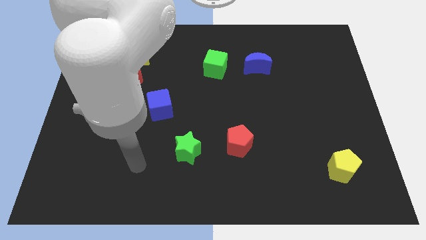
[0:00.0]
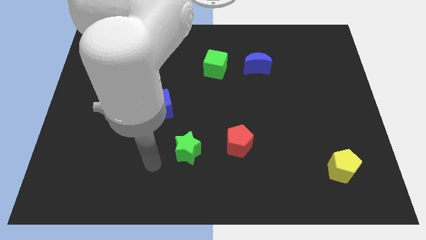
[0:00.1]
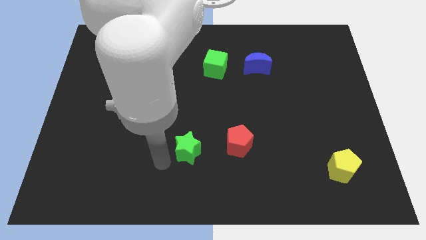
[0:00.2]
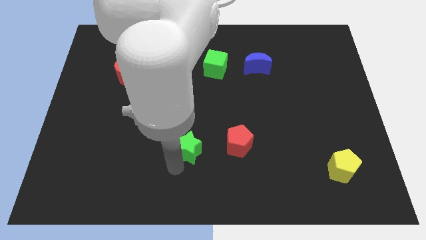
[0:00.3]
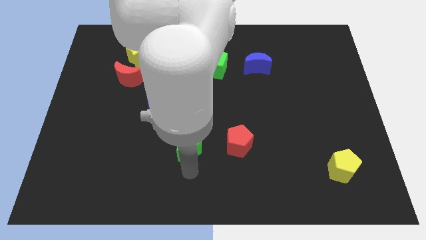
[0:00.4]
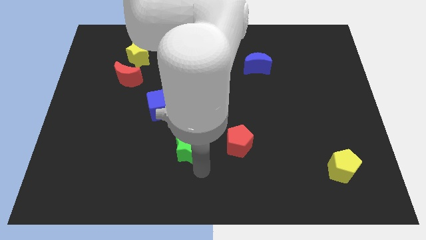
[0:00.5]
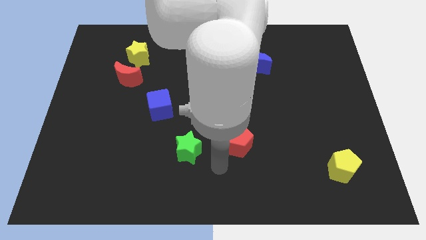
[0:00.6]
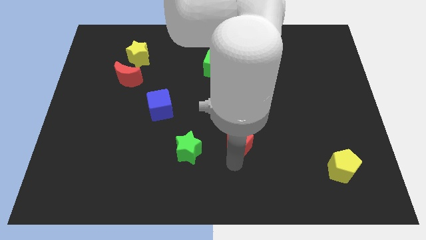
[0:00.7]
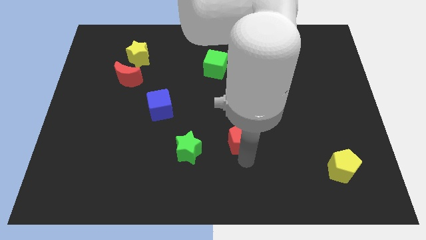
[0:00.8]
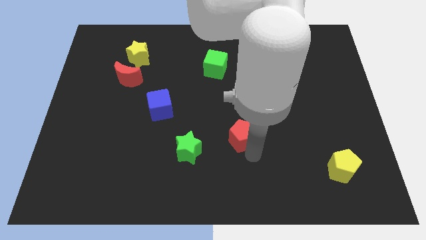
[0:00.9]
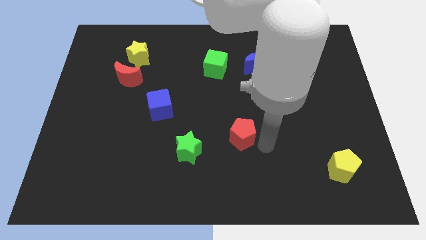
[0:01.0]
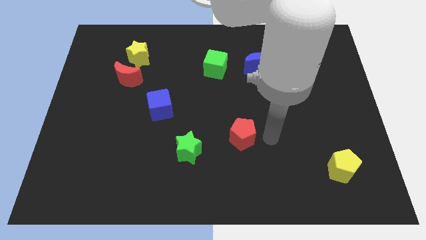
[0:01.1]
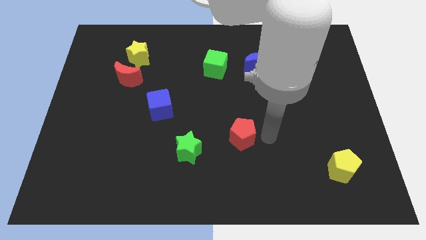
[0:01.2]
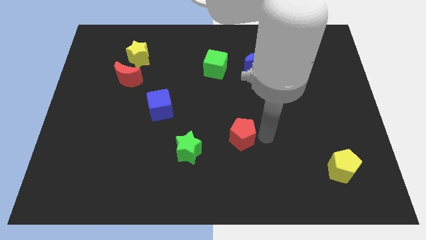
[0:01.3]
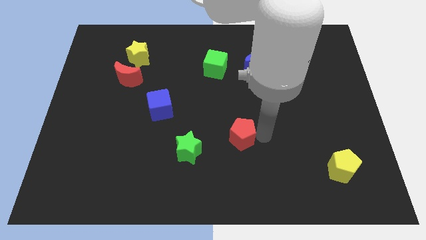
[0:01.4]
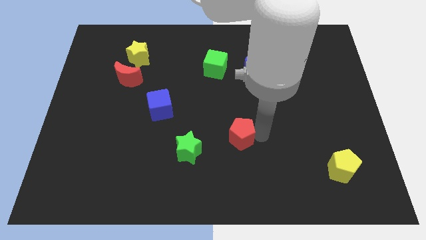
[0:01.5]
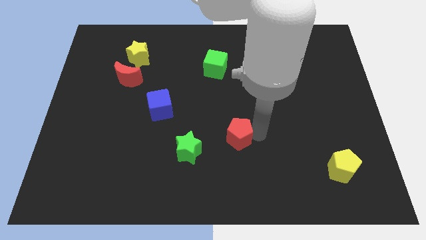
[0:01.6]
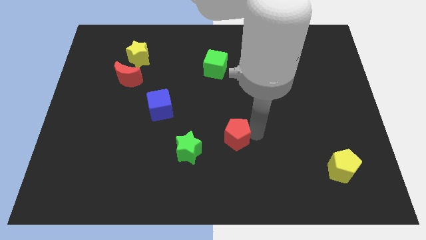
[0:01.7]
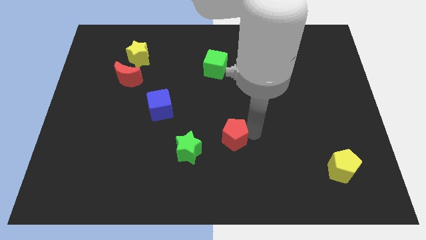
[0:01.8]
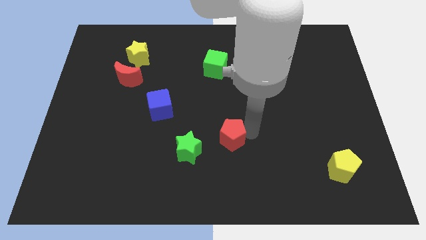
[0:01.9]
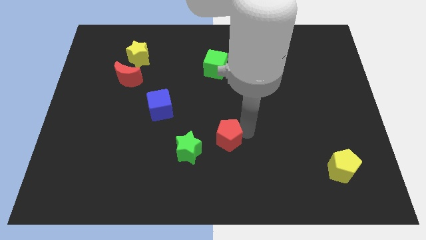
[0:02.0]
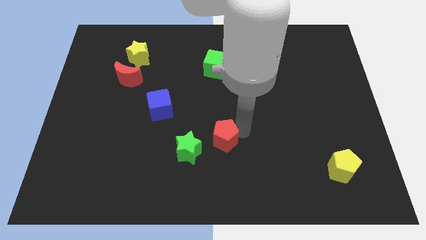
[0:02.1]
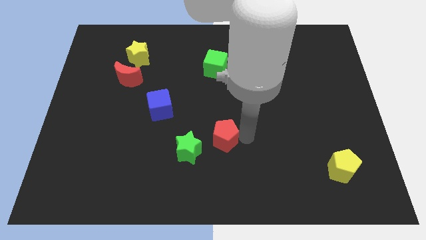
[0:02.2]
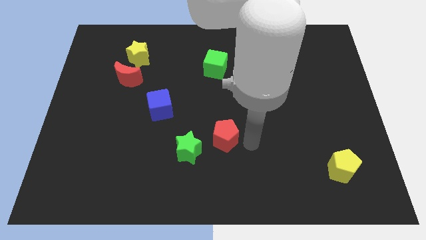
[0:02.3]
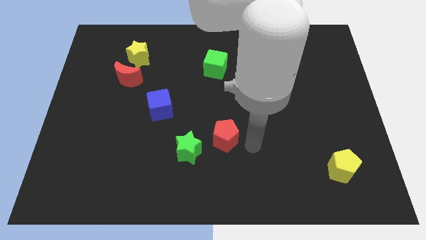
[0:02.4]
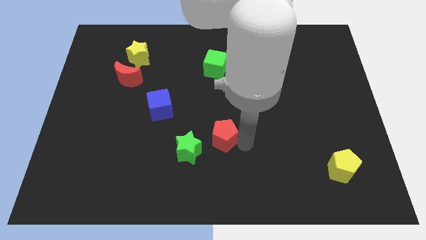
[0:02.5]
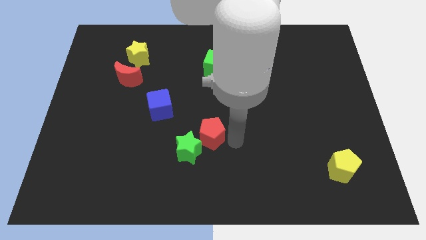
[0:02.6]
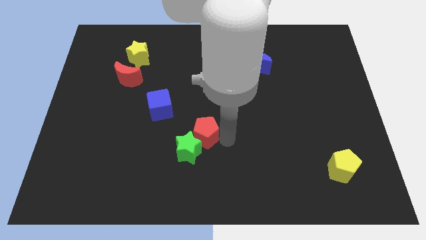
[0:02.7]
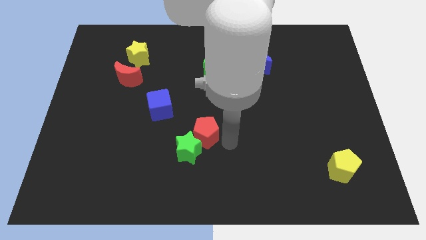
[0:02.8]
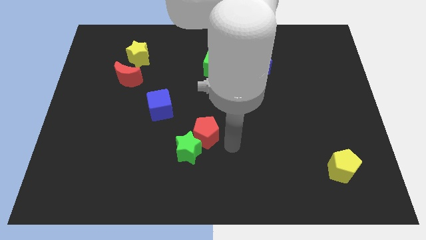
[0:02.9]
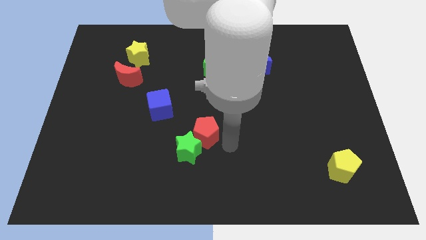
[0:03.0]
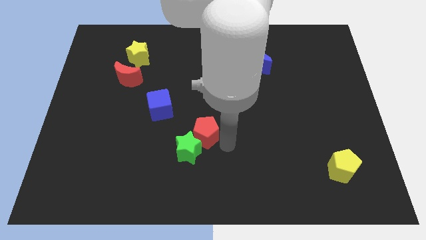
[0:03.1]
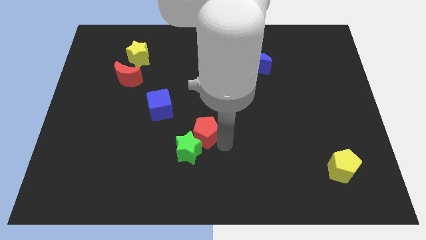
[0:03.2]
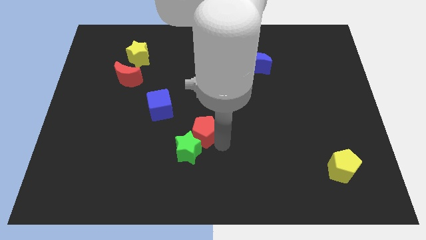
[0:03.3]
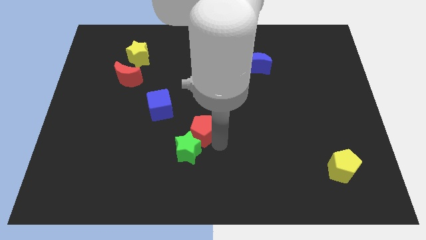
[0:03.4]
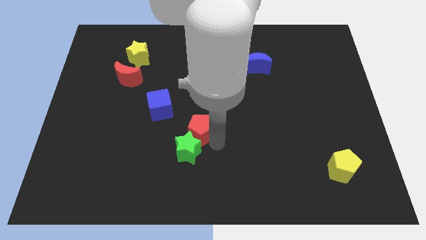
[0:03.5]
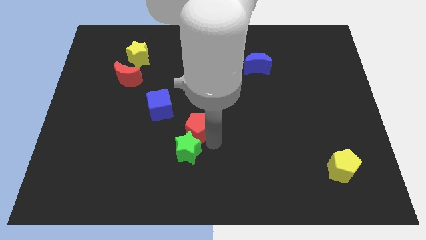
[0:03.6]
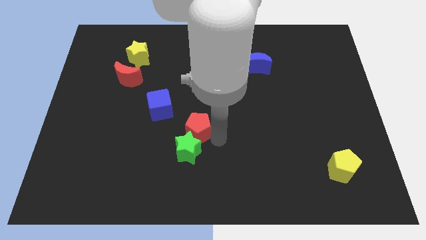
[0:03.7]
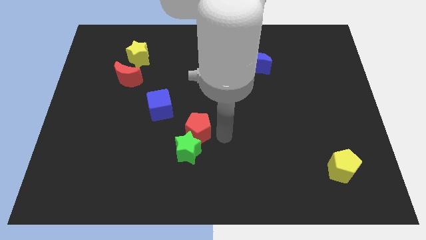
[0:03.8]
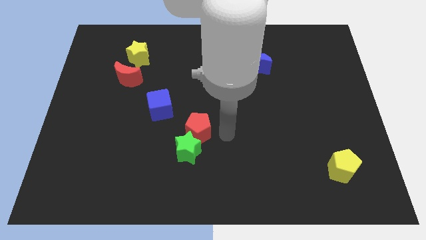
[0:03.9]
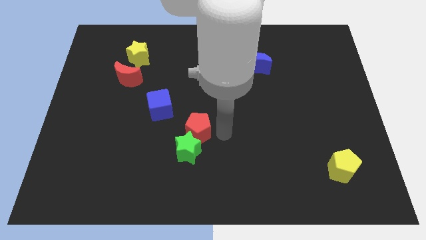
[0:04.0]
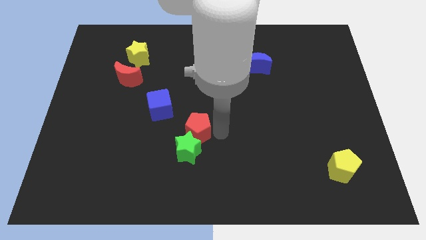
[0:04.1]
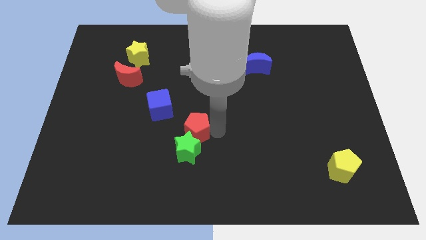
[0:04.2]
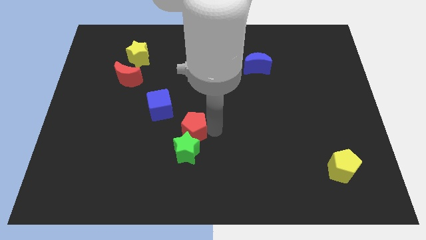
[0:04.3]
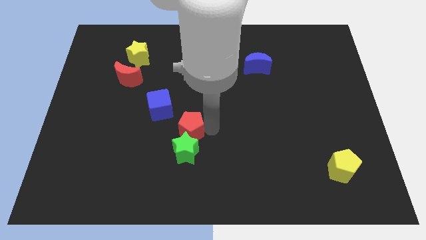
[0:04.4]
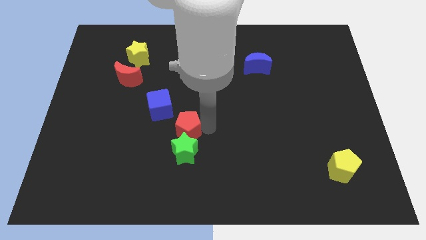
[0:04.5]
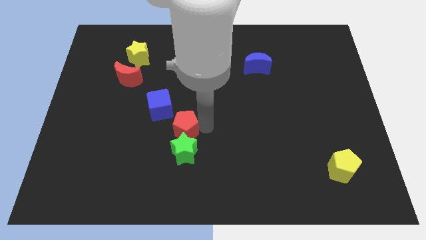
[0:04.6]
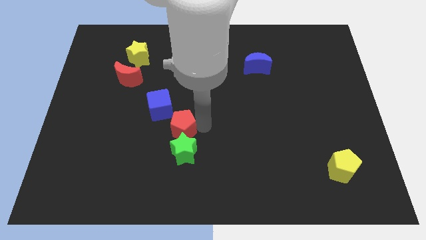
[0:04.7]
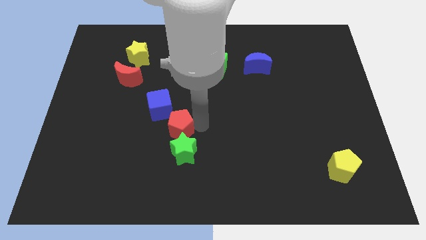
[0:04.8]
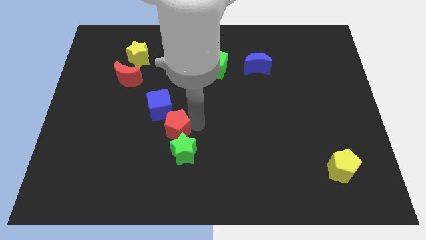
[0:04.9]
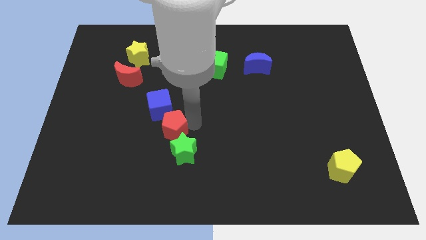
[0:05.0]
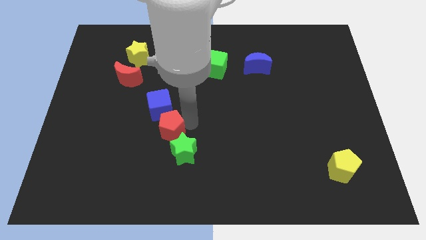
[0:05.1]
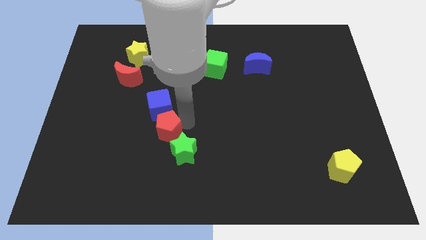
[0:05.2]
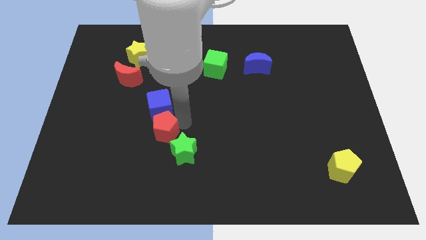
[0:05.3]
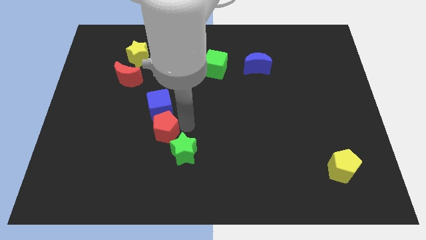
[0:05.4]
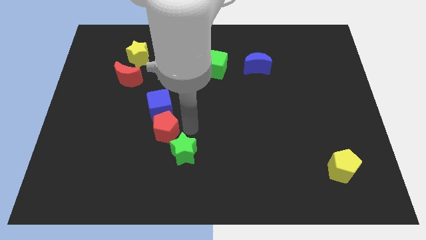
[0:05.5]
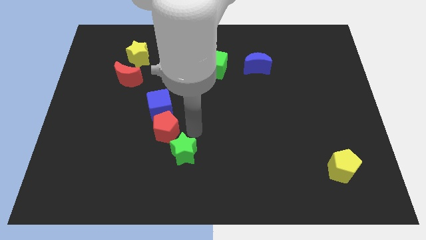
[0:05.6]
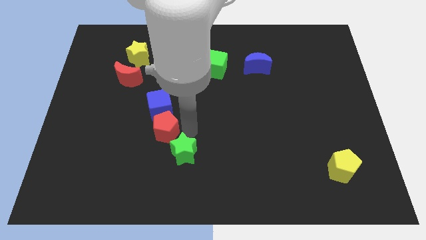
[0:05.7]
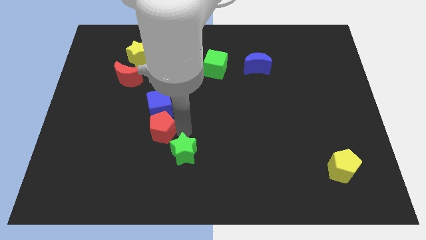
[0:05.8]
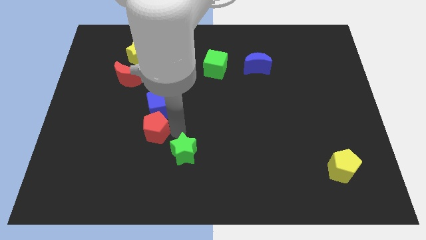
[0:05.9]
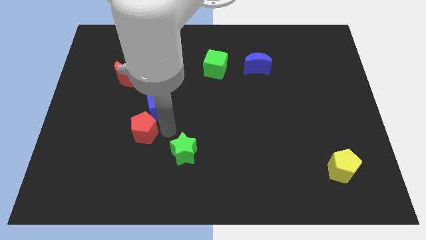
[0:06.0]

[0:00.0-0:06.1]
push the red pentagon left

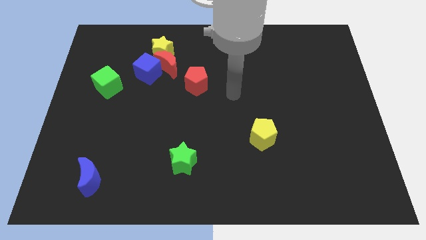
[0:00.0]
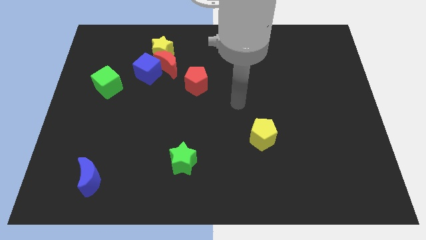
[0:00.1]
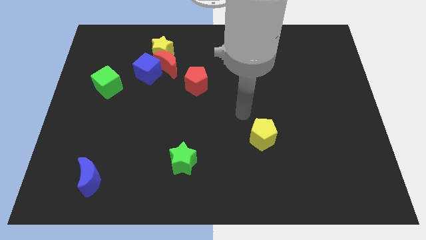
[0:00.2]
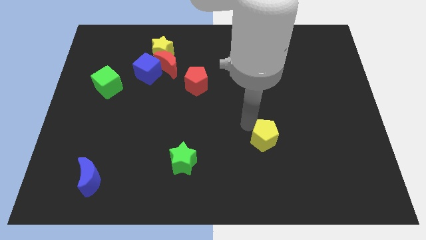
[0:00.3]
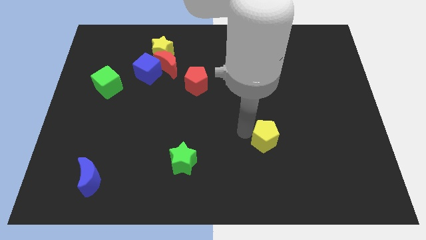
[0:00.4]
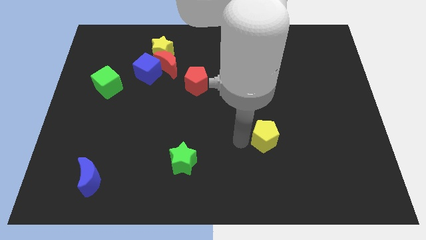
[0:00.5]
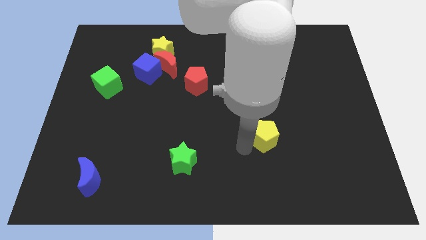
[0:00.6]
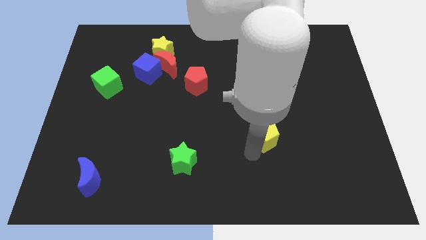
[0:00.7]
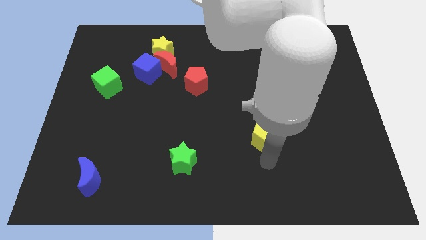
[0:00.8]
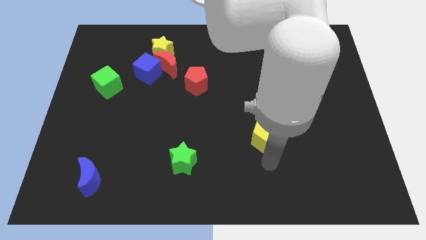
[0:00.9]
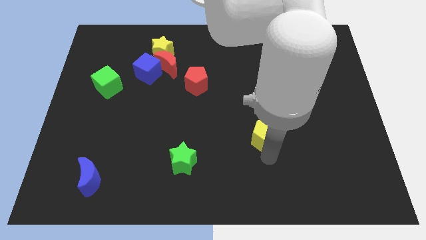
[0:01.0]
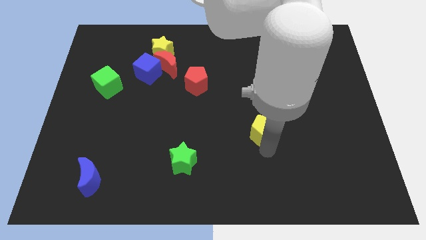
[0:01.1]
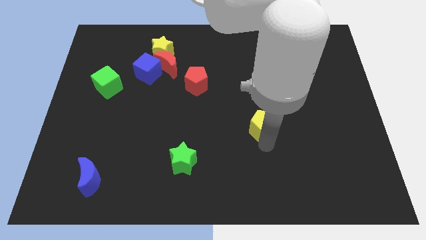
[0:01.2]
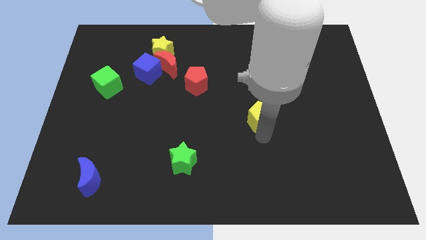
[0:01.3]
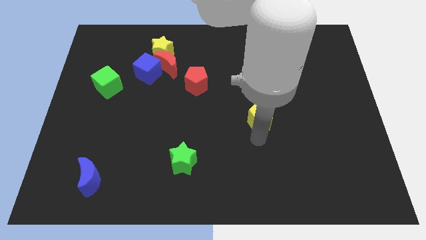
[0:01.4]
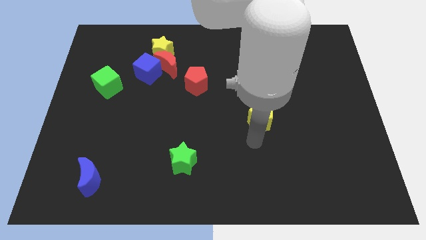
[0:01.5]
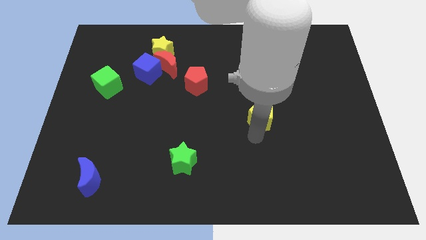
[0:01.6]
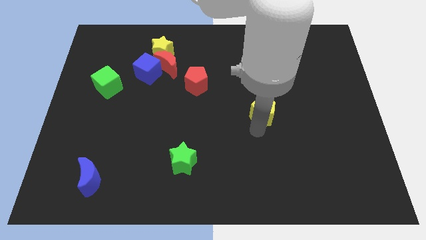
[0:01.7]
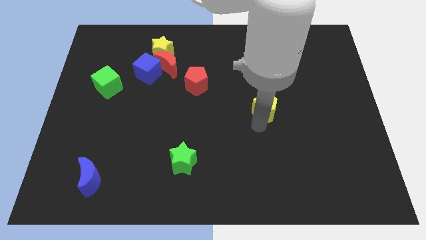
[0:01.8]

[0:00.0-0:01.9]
move the yellow pentagon a bit up
